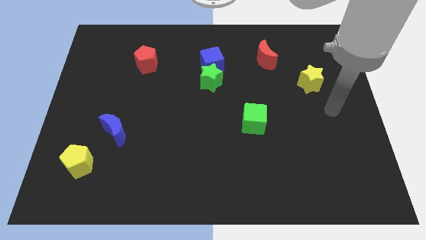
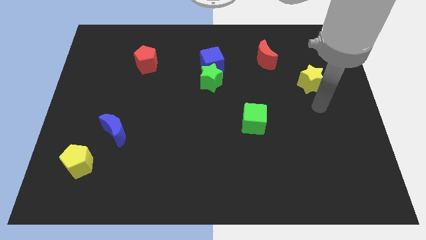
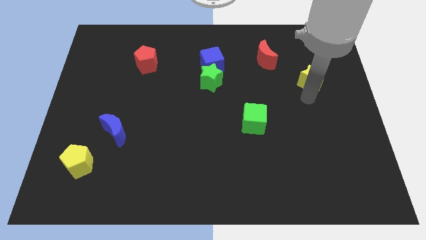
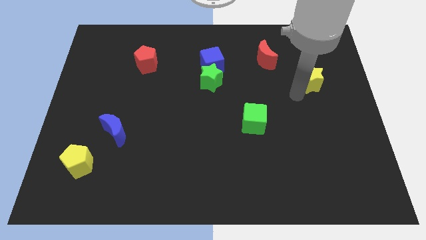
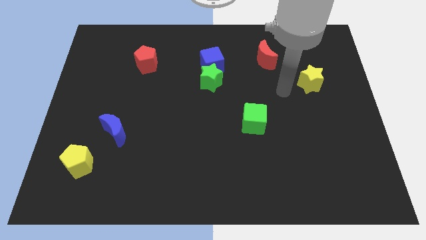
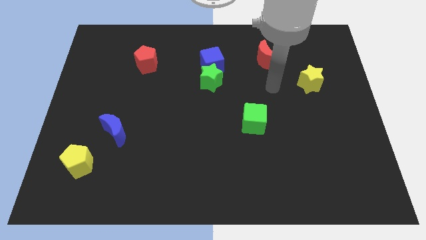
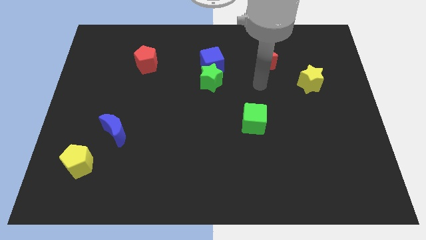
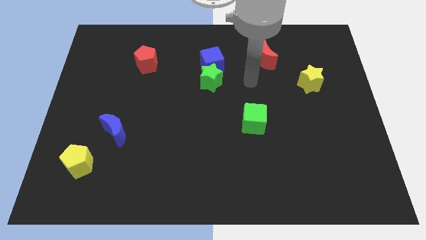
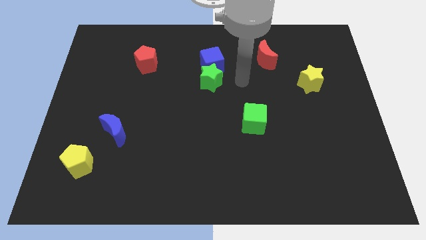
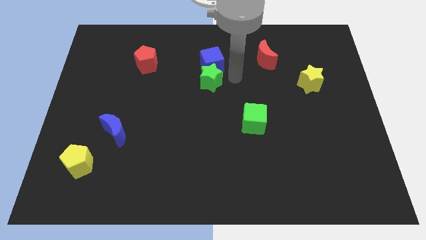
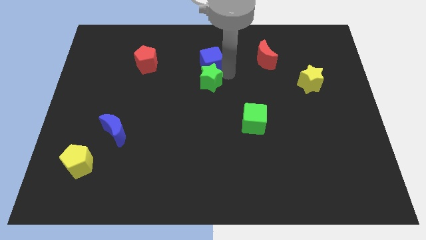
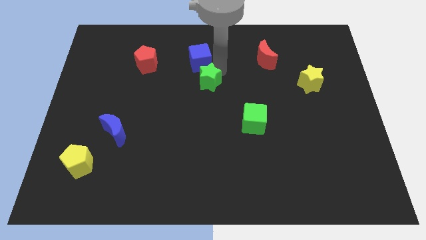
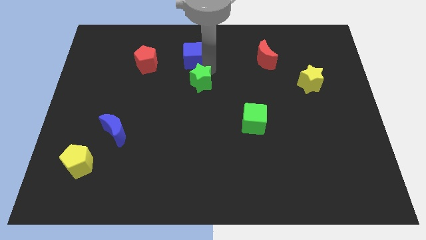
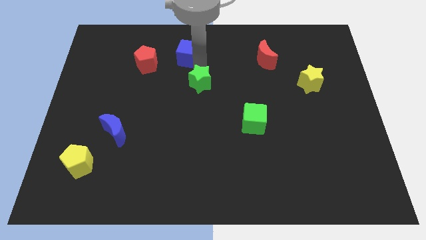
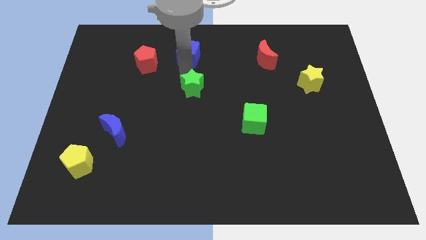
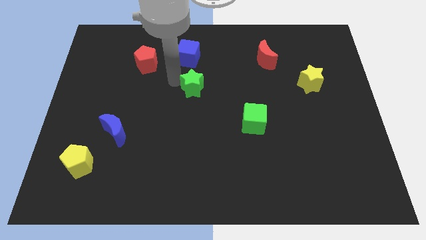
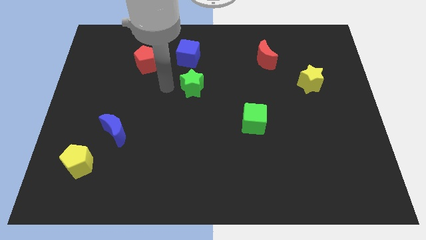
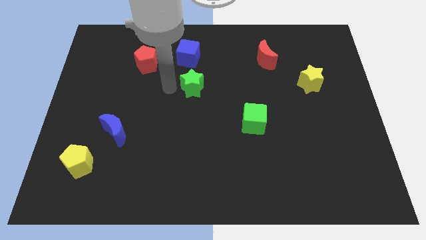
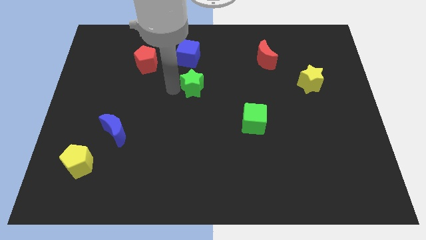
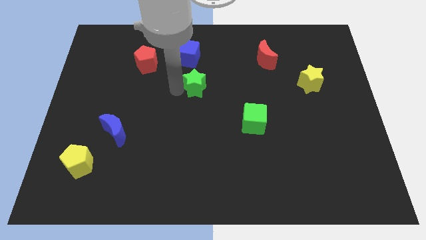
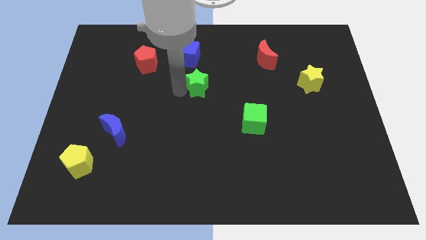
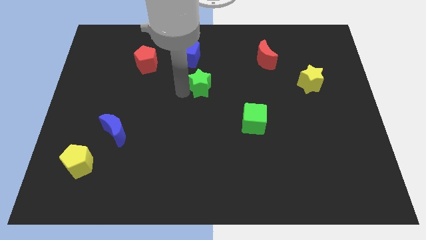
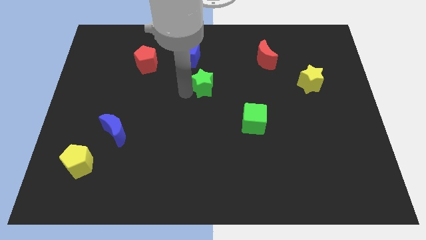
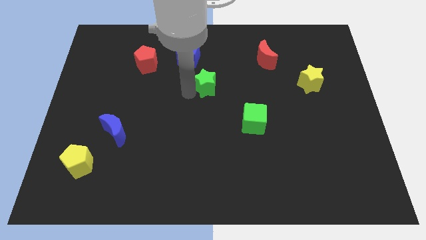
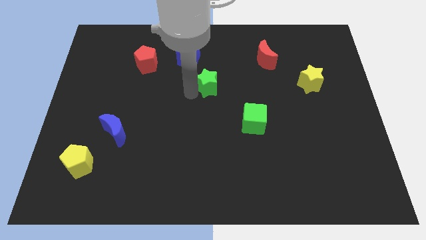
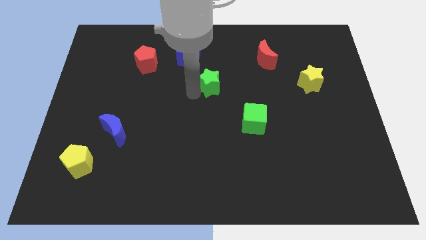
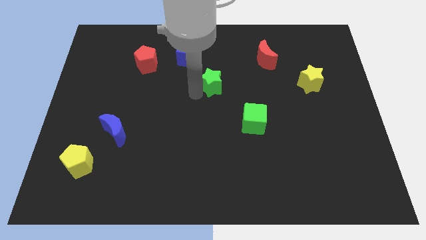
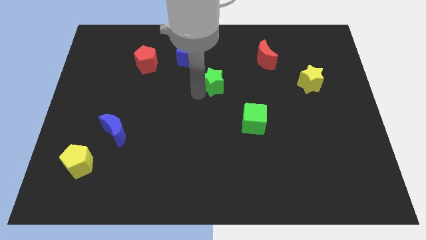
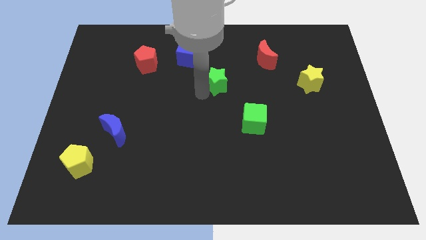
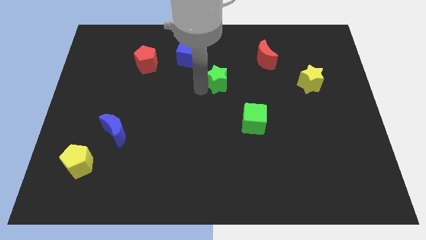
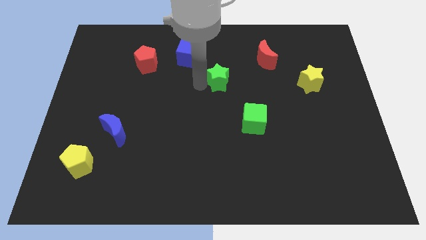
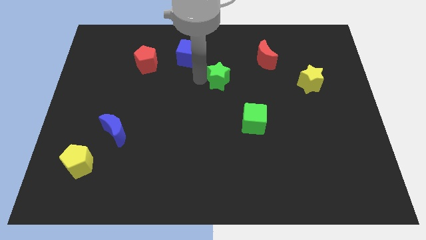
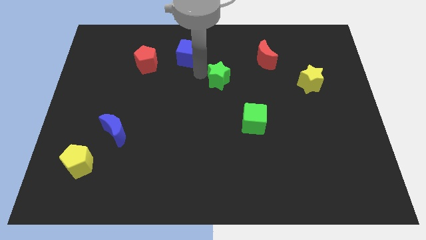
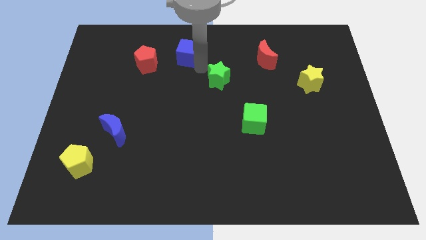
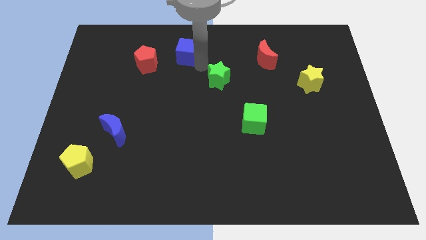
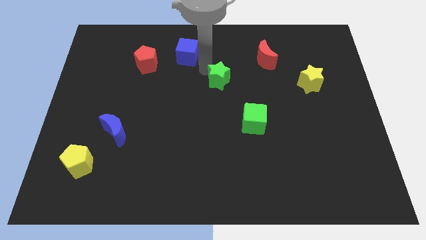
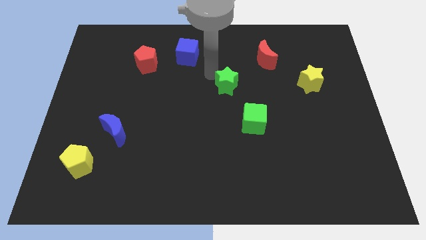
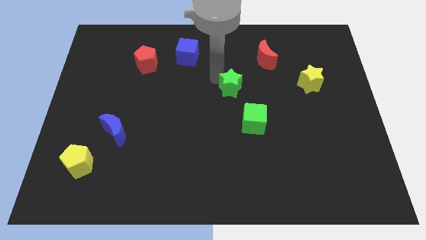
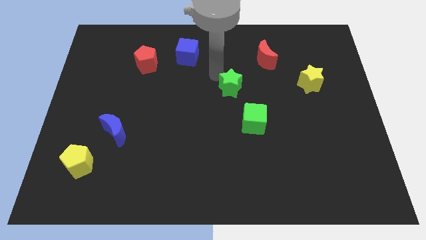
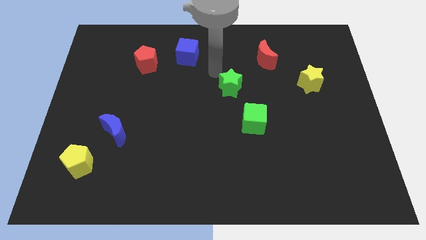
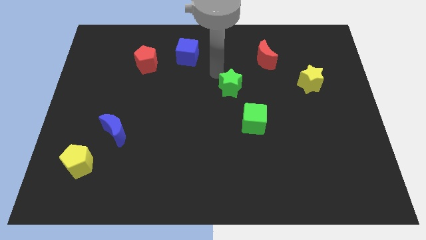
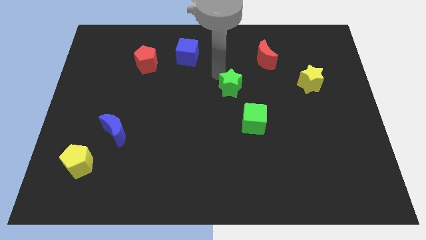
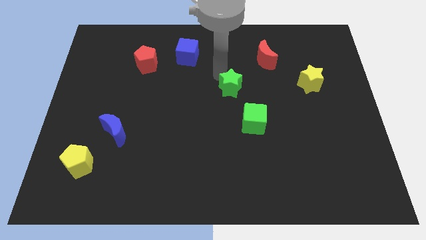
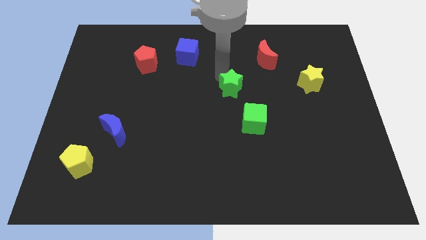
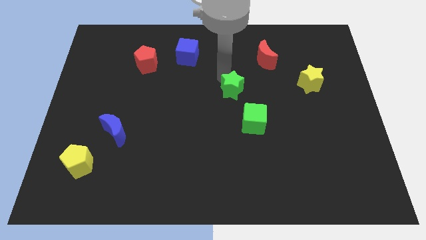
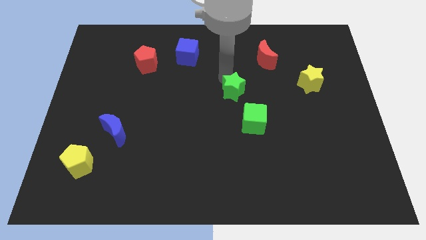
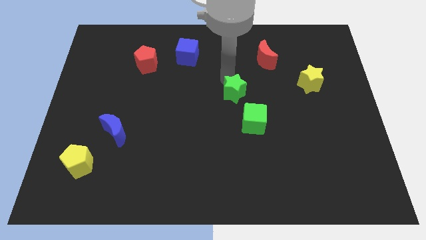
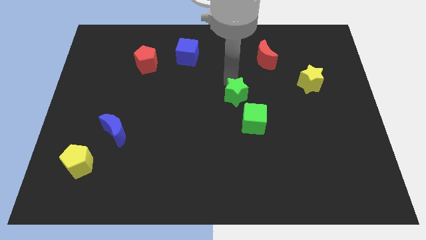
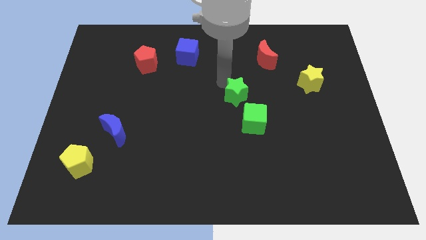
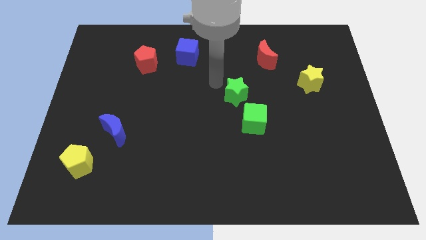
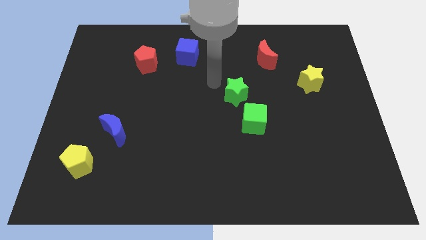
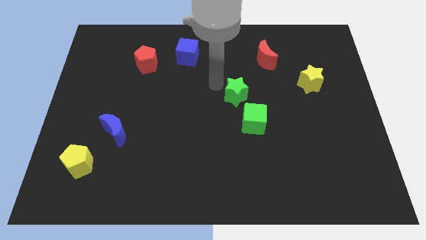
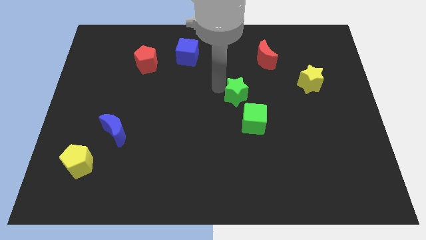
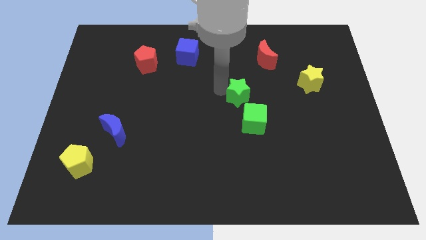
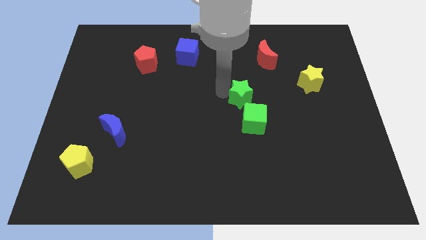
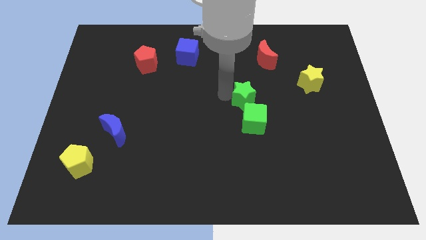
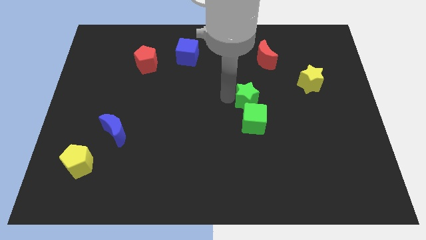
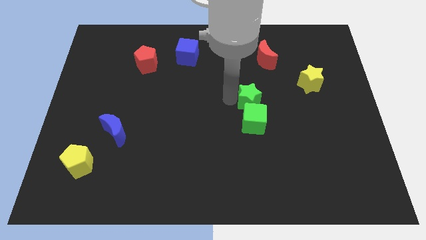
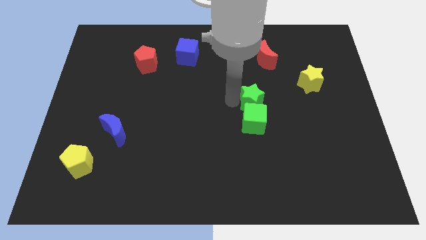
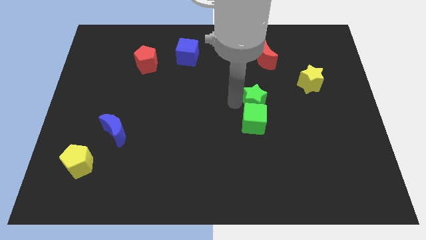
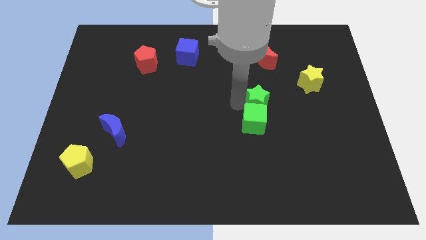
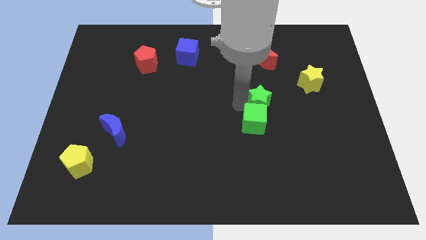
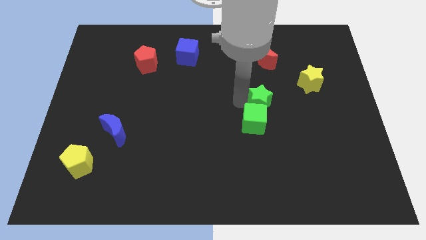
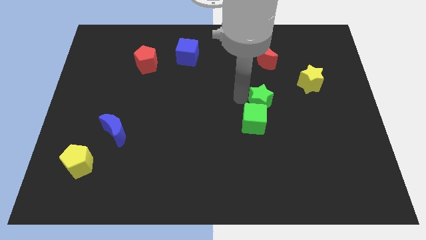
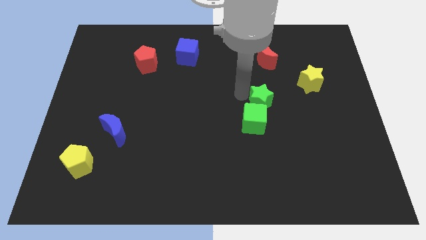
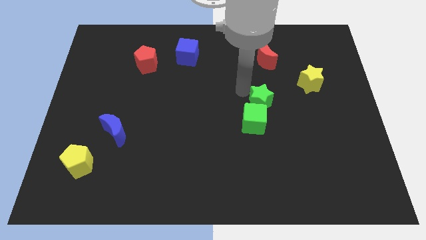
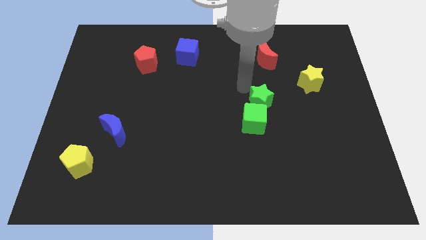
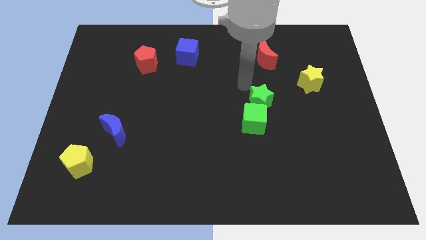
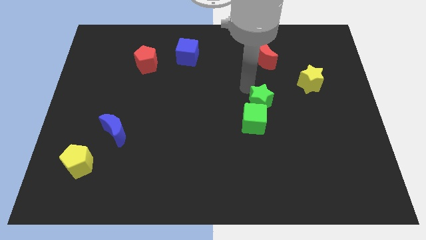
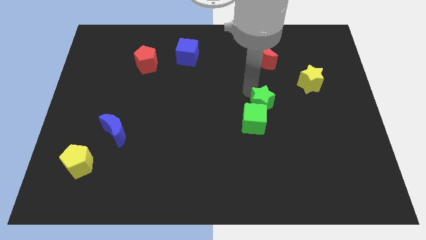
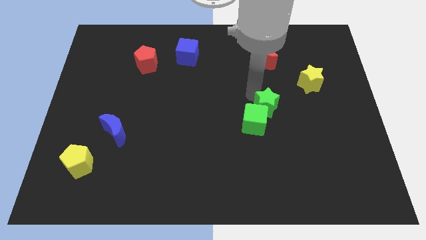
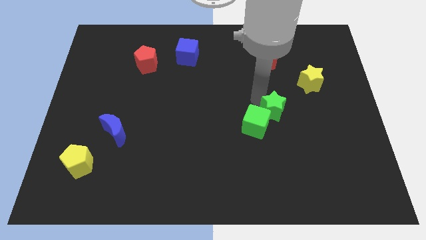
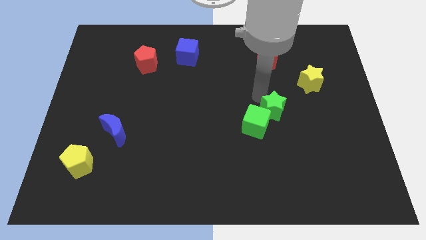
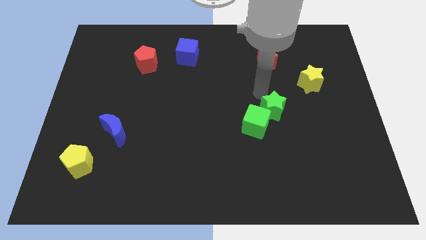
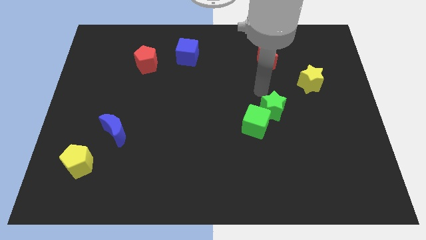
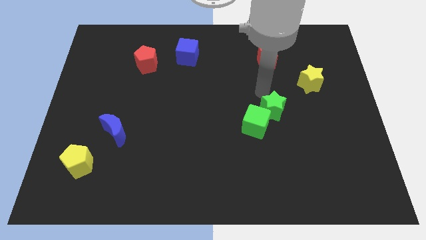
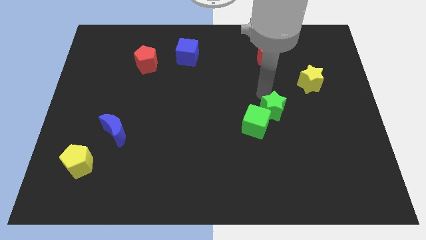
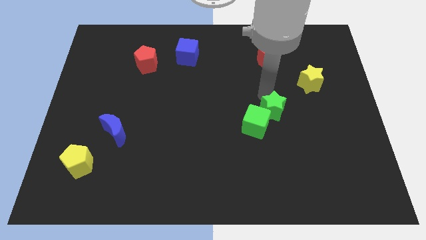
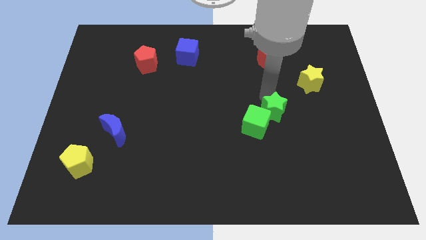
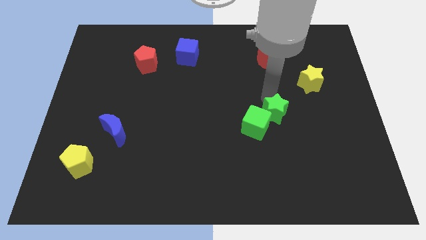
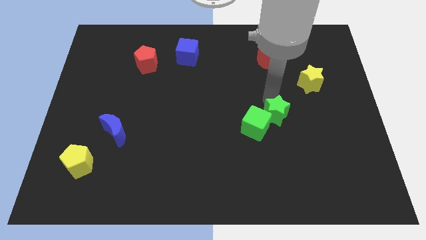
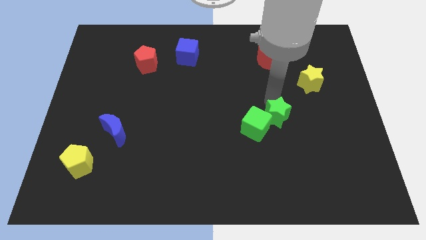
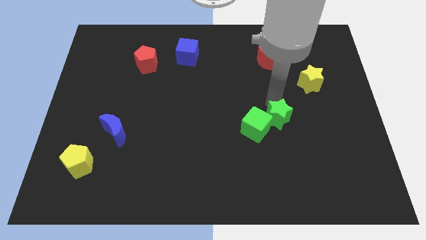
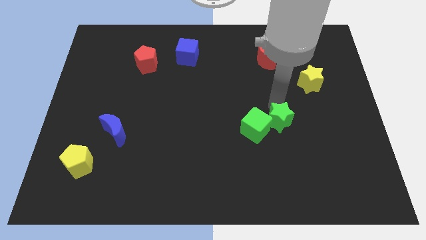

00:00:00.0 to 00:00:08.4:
slide the green star downwards and then to the right
